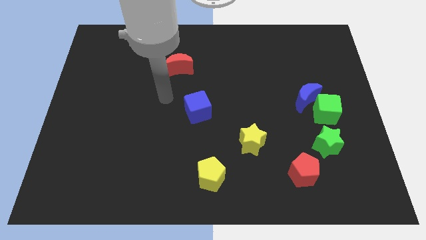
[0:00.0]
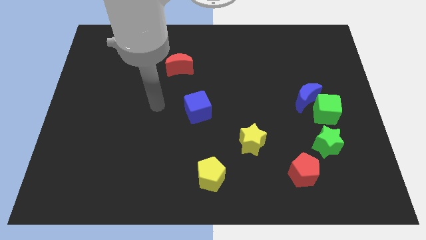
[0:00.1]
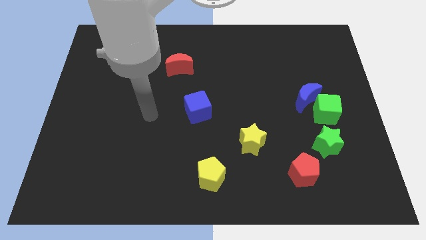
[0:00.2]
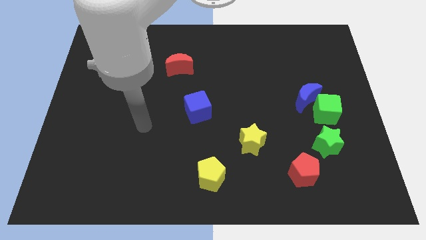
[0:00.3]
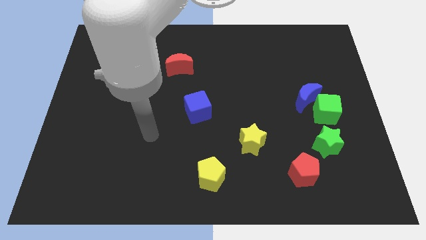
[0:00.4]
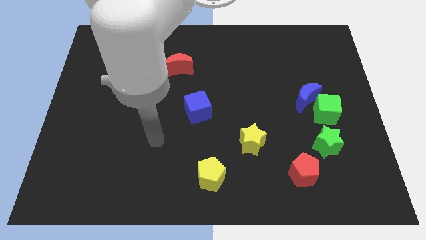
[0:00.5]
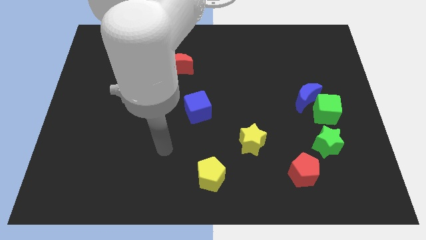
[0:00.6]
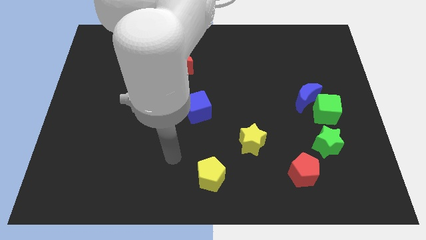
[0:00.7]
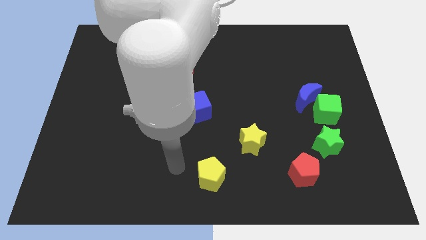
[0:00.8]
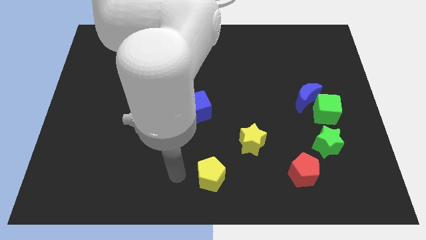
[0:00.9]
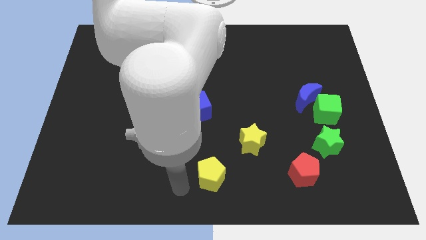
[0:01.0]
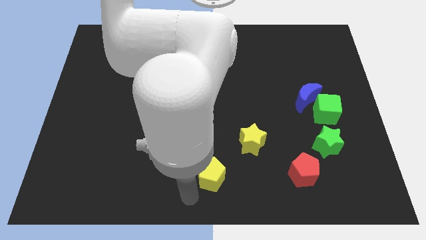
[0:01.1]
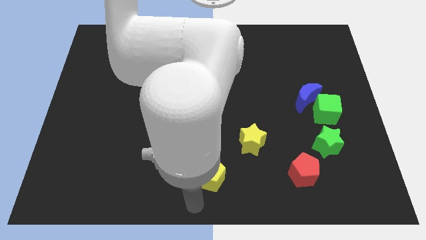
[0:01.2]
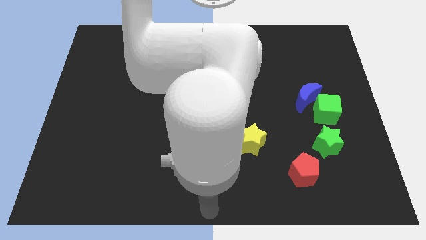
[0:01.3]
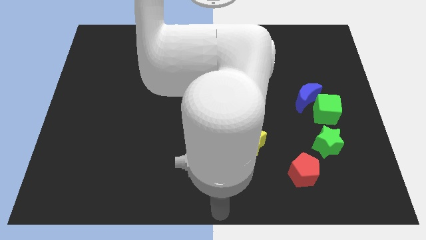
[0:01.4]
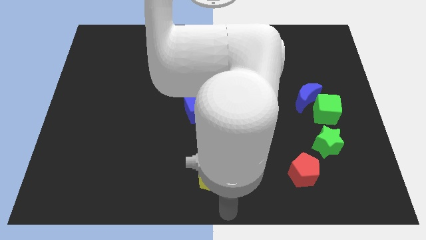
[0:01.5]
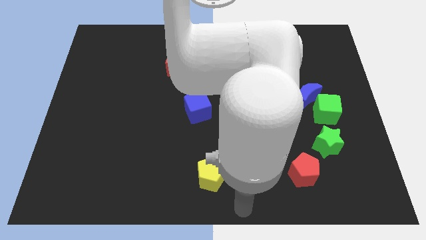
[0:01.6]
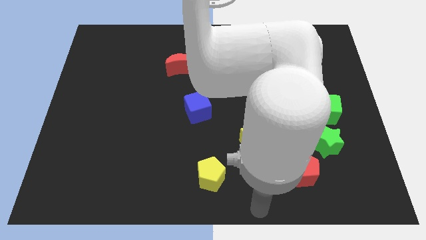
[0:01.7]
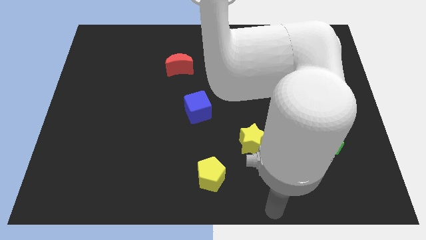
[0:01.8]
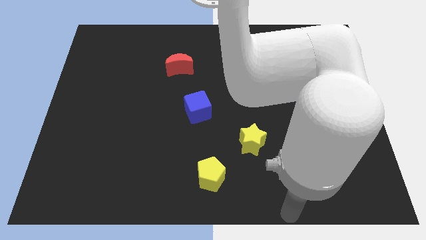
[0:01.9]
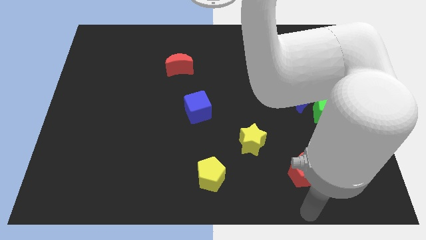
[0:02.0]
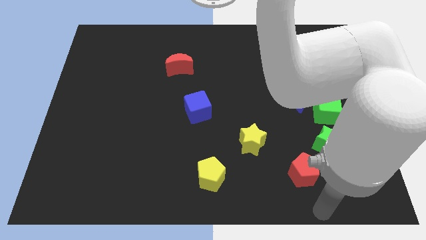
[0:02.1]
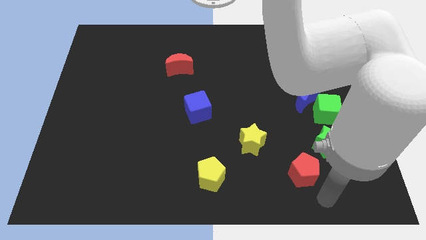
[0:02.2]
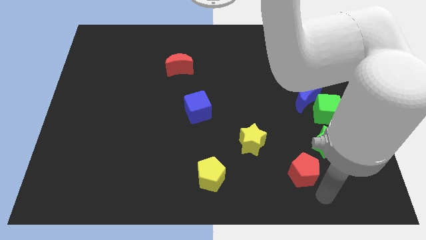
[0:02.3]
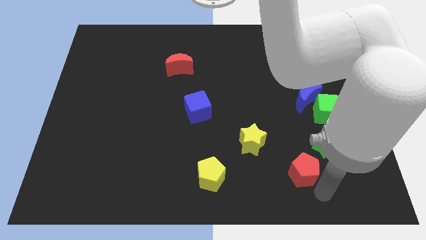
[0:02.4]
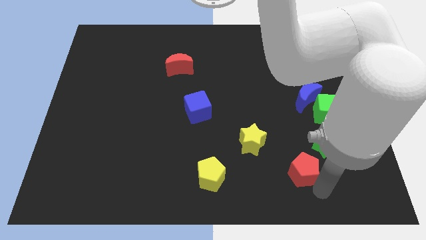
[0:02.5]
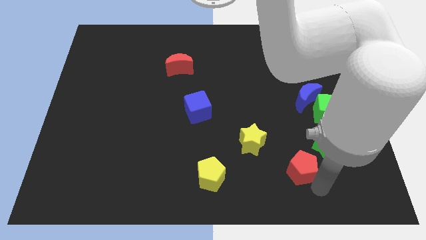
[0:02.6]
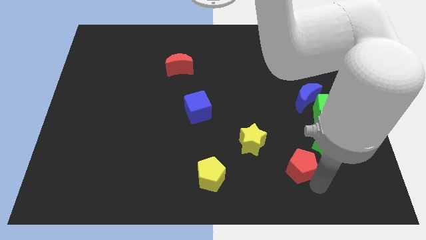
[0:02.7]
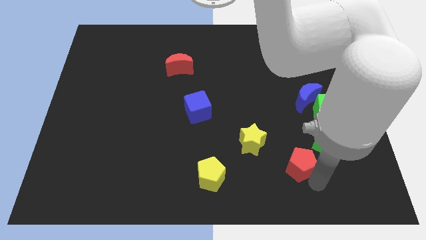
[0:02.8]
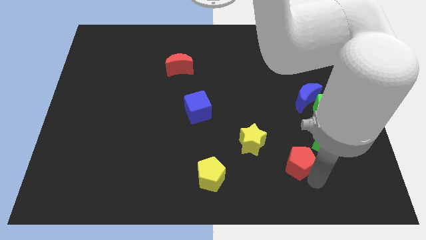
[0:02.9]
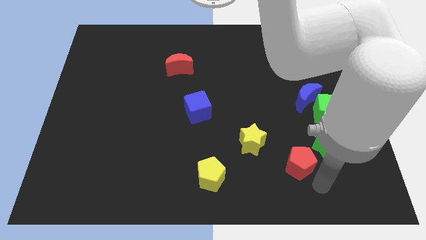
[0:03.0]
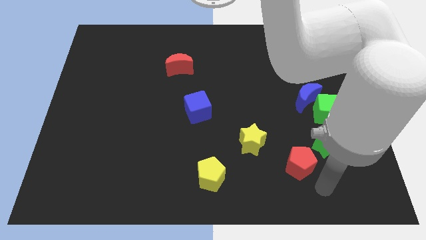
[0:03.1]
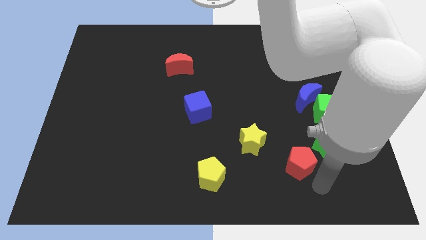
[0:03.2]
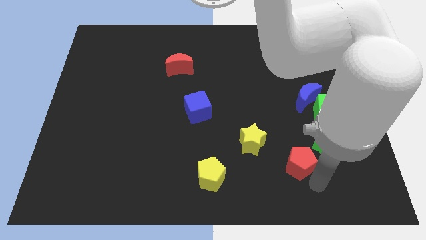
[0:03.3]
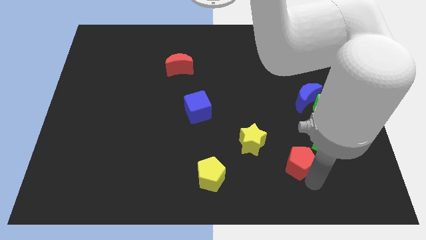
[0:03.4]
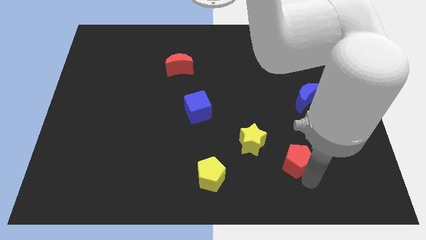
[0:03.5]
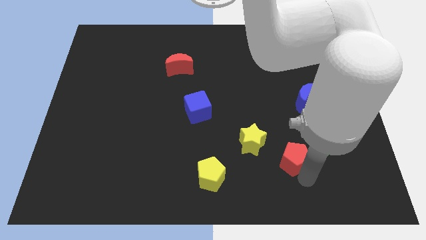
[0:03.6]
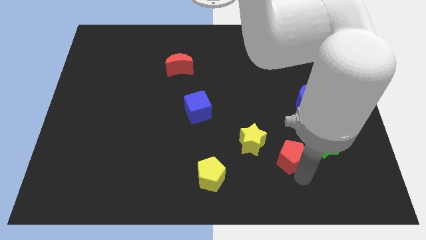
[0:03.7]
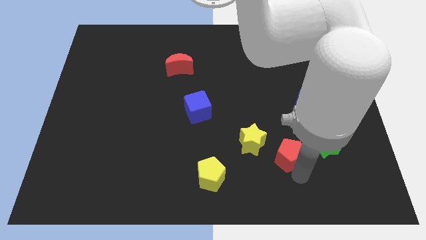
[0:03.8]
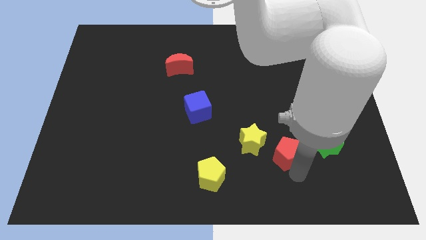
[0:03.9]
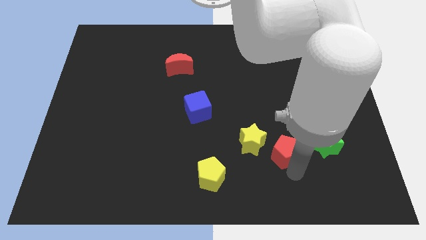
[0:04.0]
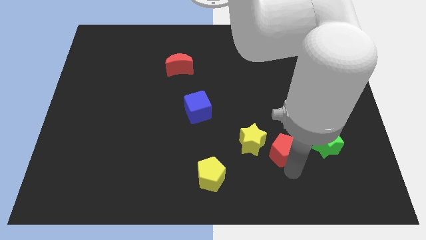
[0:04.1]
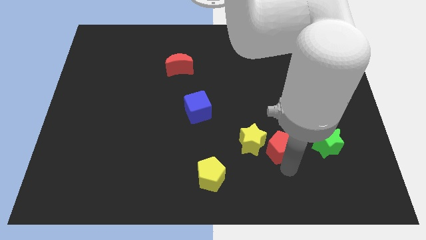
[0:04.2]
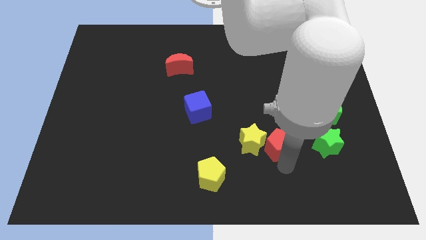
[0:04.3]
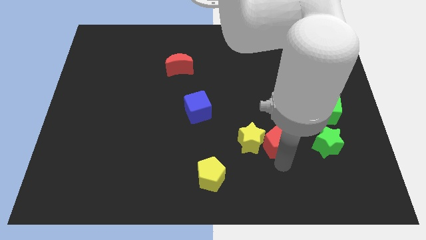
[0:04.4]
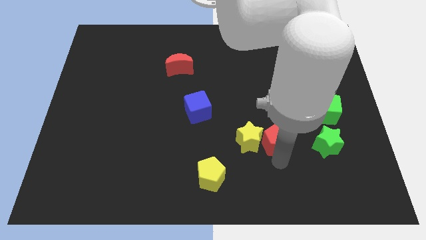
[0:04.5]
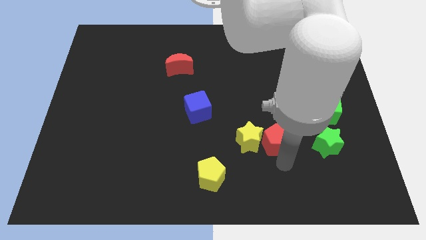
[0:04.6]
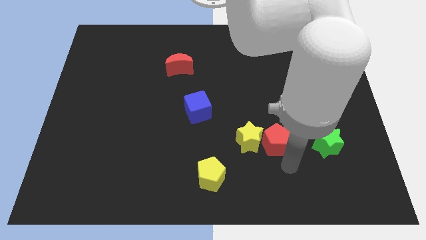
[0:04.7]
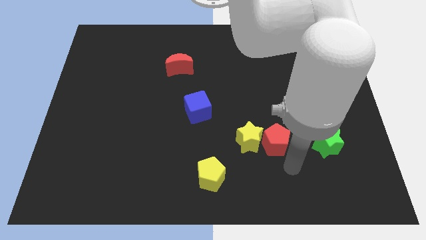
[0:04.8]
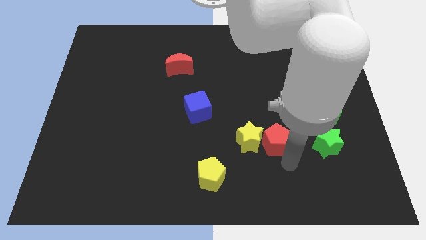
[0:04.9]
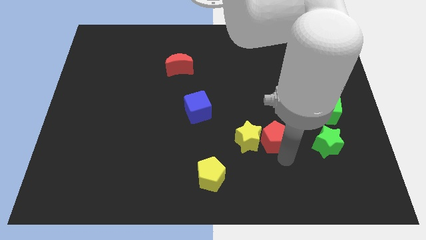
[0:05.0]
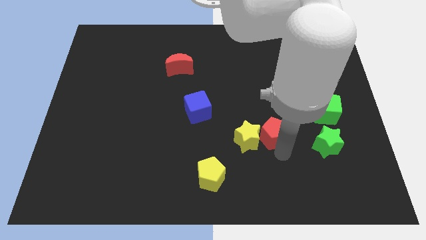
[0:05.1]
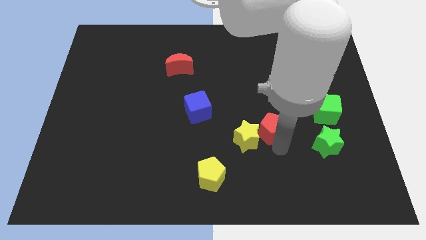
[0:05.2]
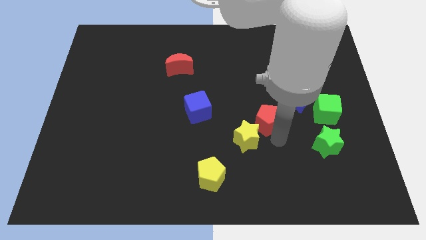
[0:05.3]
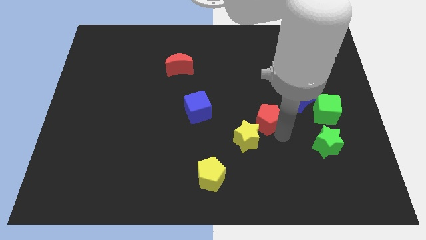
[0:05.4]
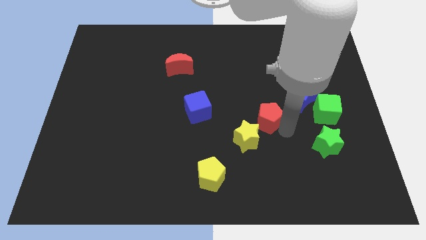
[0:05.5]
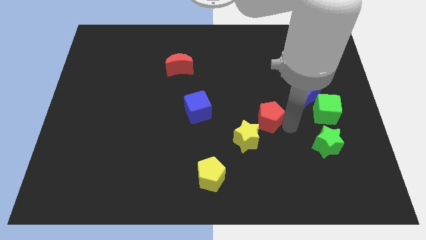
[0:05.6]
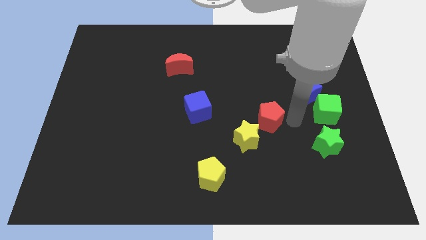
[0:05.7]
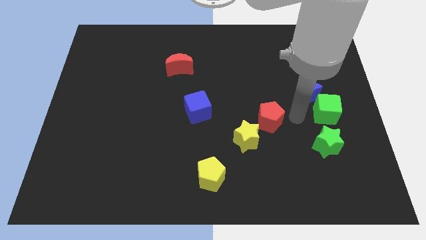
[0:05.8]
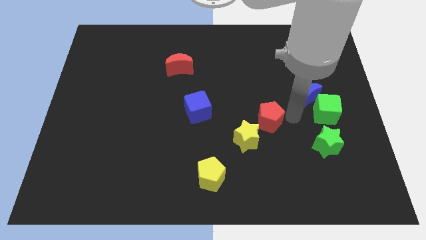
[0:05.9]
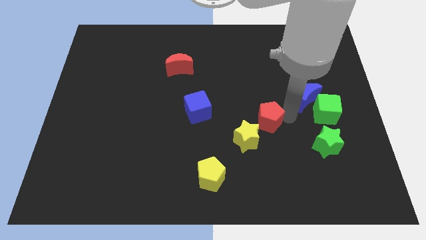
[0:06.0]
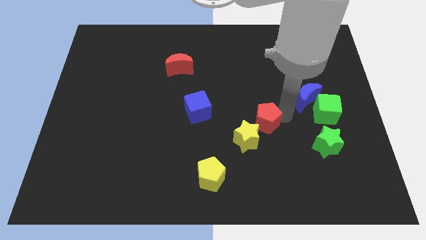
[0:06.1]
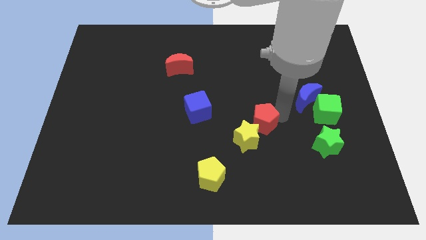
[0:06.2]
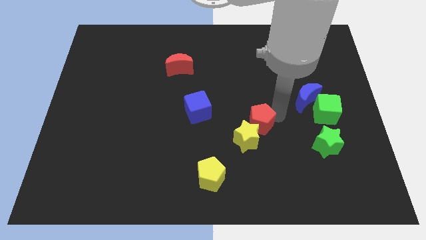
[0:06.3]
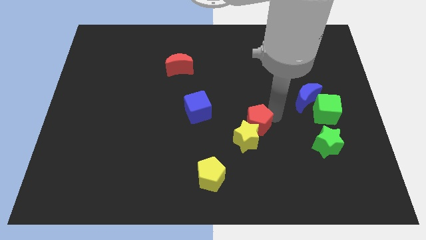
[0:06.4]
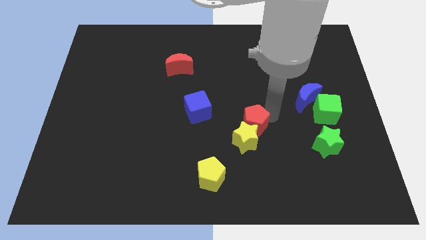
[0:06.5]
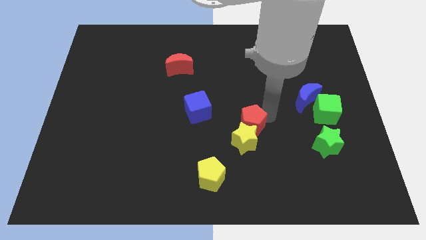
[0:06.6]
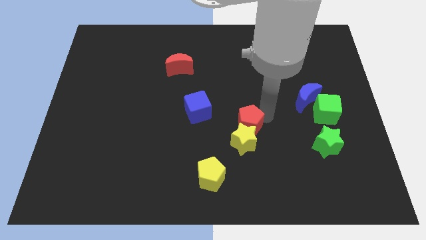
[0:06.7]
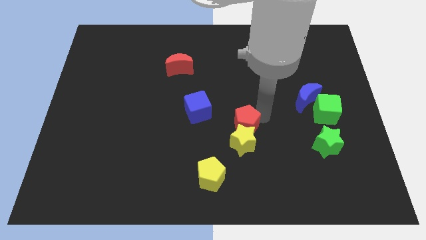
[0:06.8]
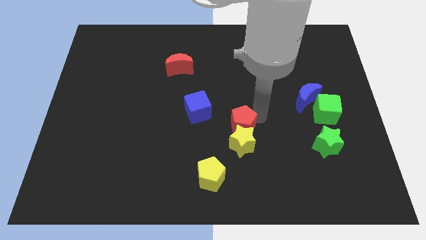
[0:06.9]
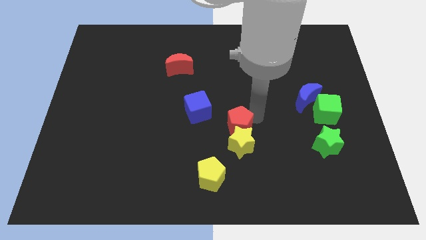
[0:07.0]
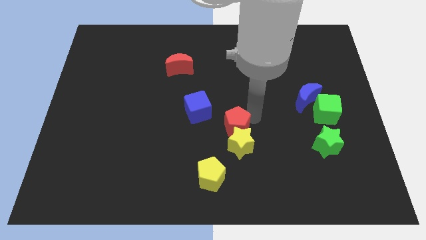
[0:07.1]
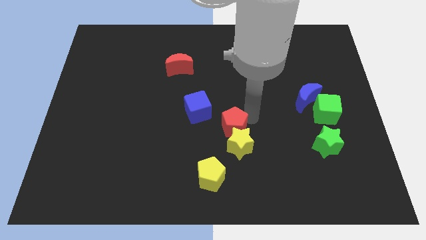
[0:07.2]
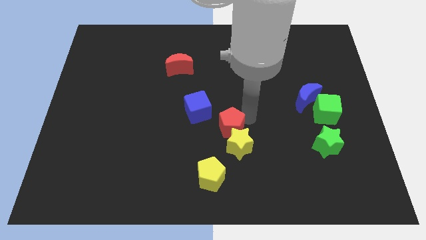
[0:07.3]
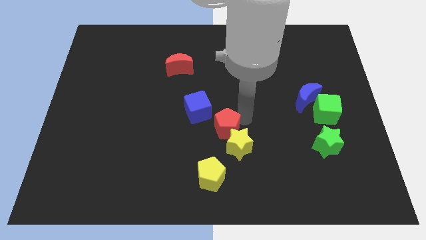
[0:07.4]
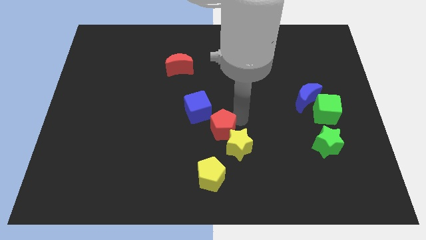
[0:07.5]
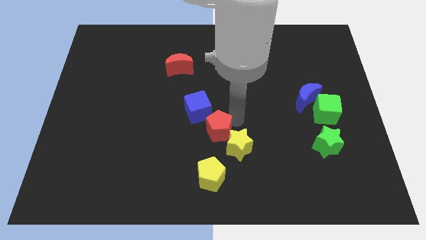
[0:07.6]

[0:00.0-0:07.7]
move the red pentagon to the bottom of the blue cube
